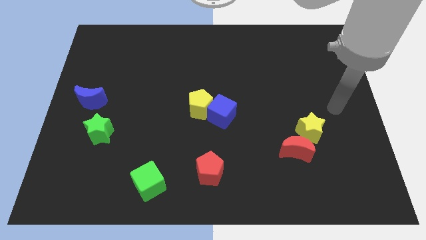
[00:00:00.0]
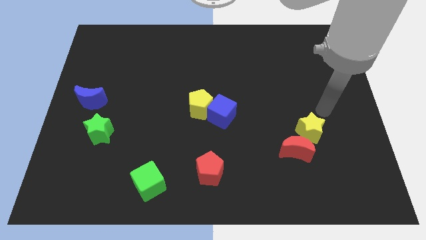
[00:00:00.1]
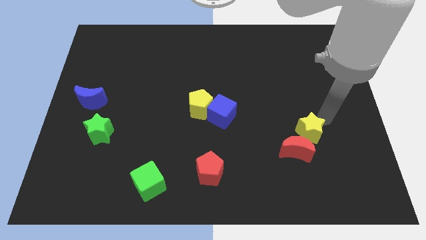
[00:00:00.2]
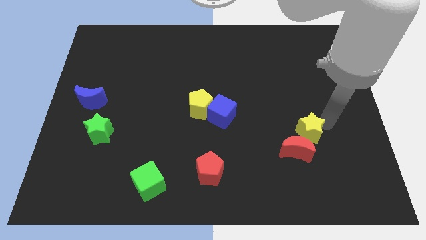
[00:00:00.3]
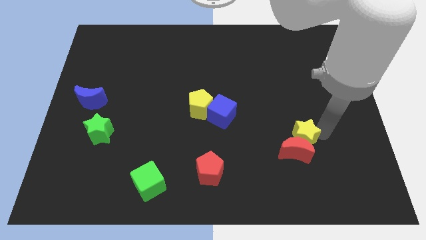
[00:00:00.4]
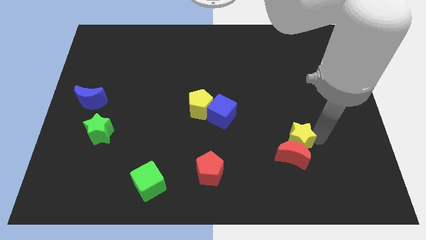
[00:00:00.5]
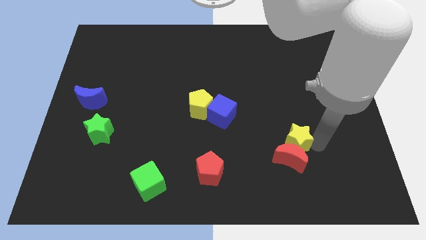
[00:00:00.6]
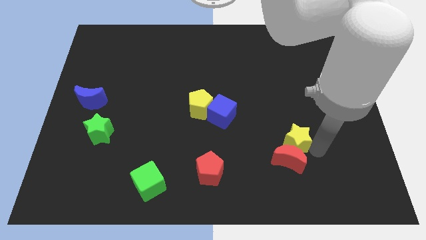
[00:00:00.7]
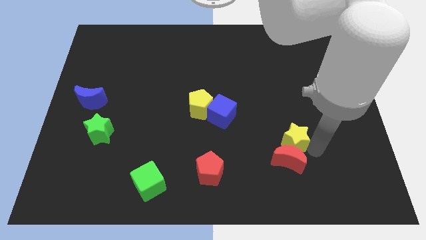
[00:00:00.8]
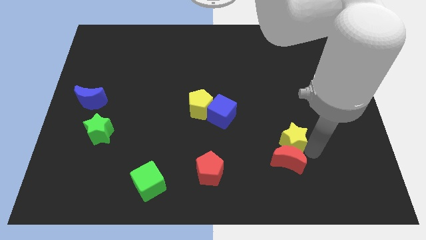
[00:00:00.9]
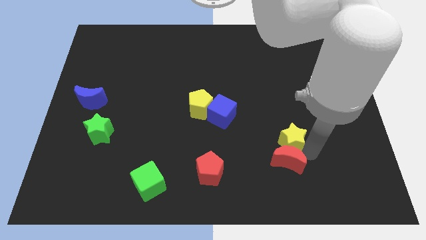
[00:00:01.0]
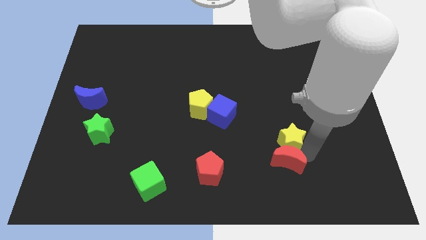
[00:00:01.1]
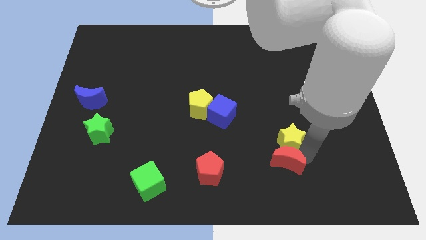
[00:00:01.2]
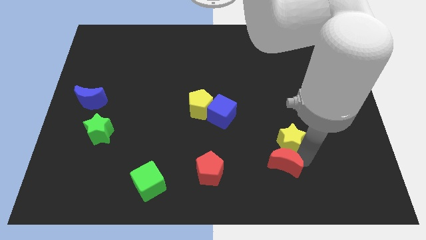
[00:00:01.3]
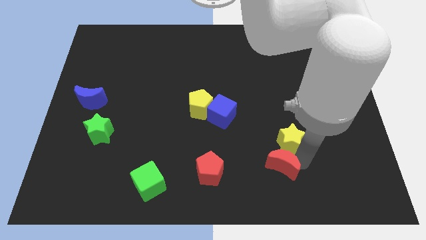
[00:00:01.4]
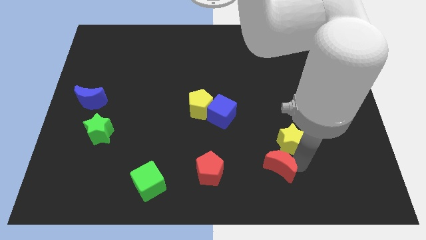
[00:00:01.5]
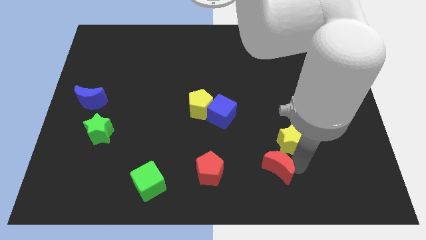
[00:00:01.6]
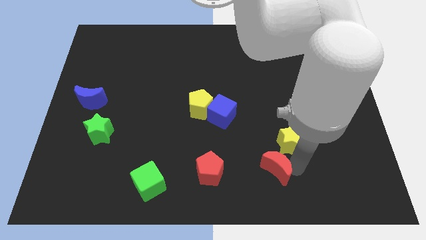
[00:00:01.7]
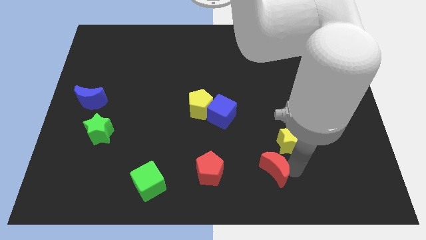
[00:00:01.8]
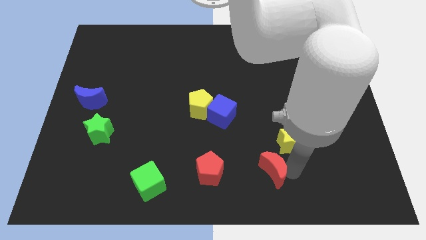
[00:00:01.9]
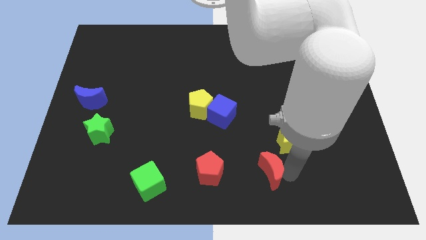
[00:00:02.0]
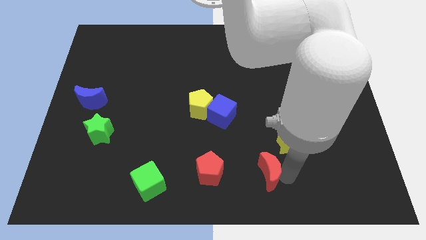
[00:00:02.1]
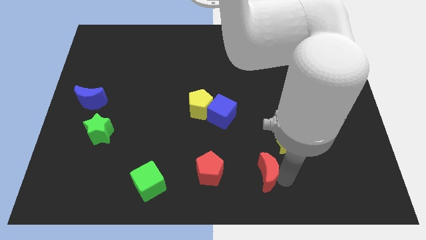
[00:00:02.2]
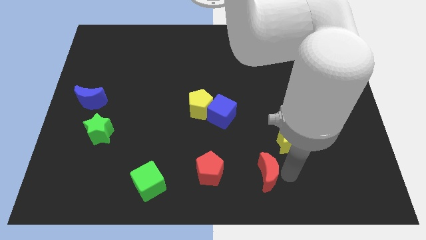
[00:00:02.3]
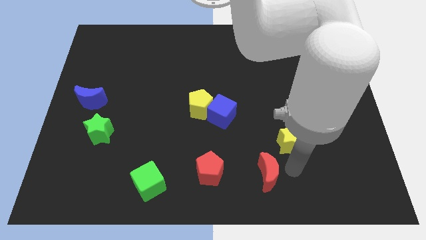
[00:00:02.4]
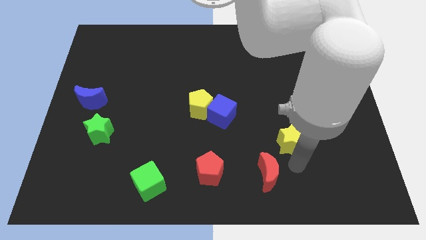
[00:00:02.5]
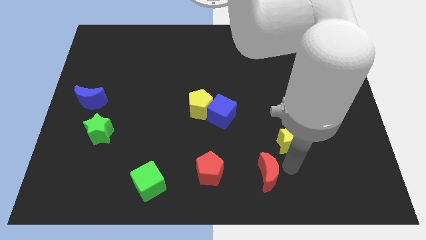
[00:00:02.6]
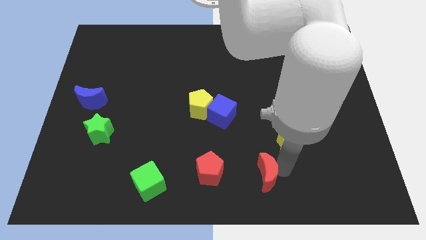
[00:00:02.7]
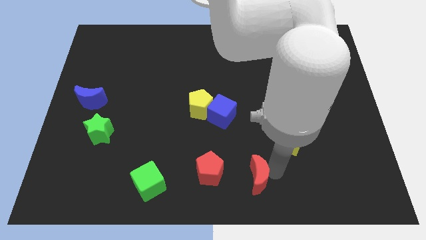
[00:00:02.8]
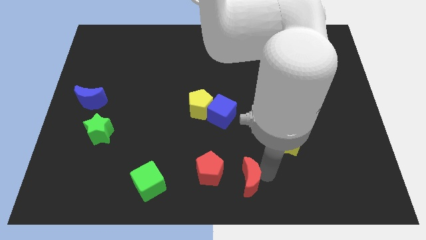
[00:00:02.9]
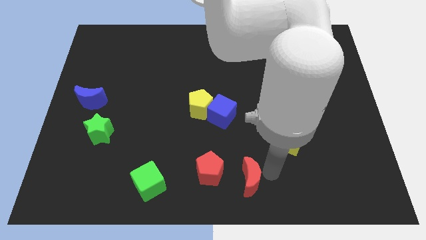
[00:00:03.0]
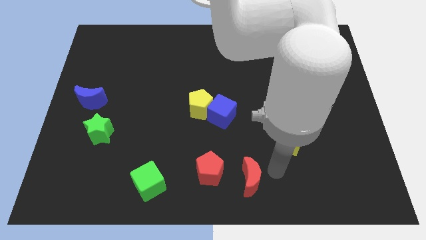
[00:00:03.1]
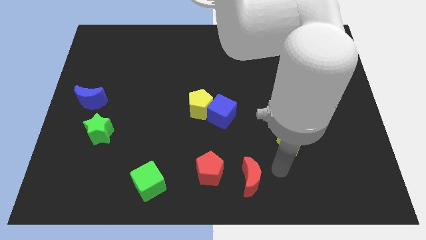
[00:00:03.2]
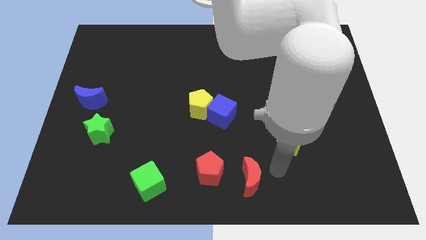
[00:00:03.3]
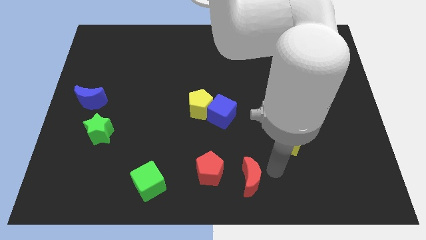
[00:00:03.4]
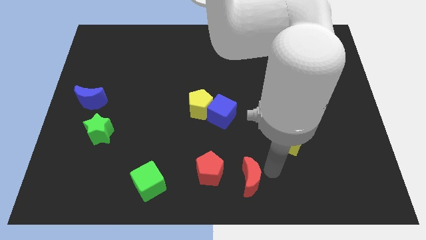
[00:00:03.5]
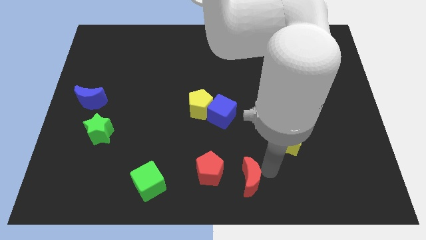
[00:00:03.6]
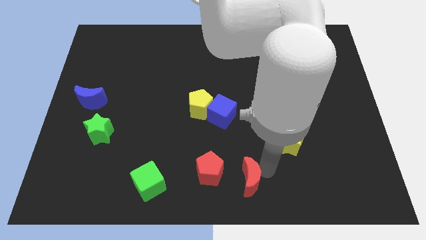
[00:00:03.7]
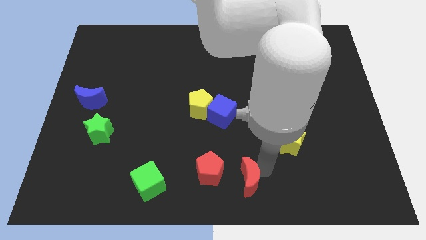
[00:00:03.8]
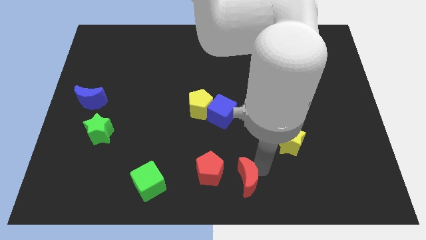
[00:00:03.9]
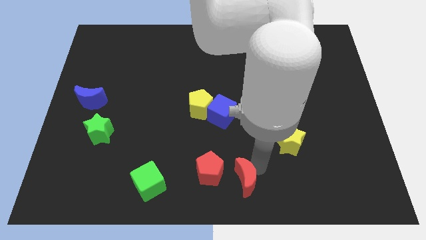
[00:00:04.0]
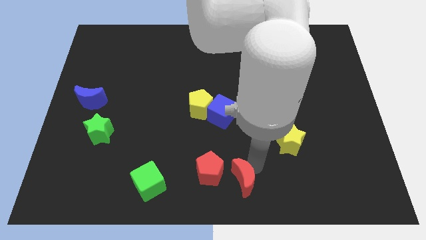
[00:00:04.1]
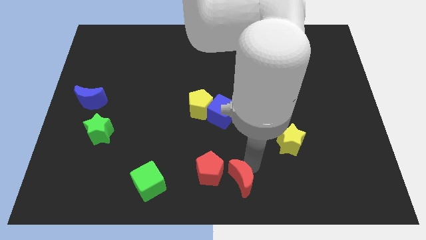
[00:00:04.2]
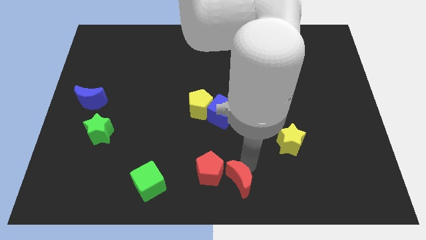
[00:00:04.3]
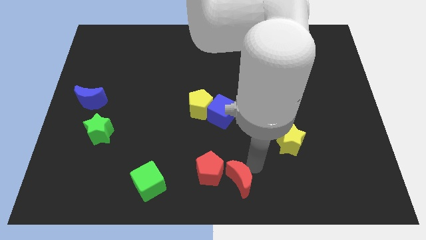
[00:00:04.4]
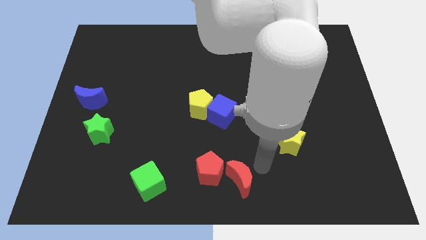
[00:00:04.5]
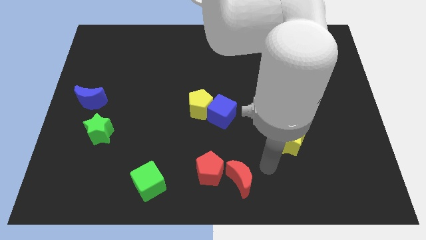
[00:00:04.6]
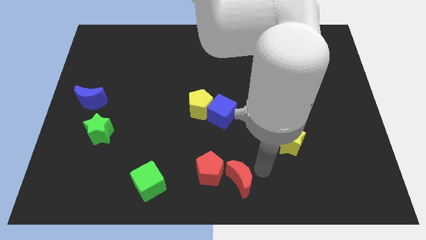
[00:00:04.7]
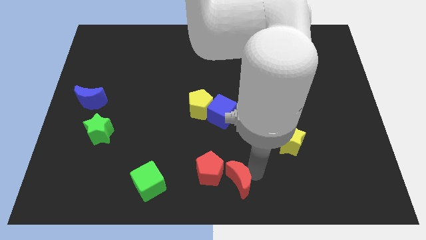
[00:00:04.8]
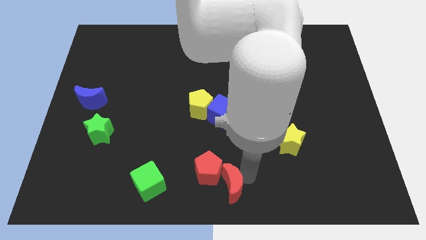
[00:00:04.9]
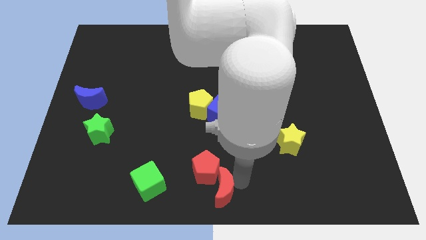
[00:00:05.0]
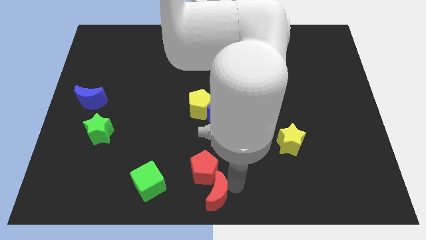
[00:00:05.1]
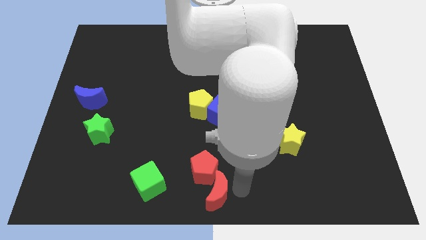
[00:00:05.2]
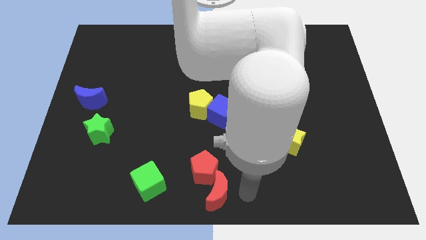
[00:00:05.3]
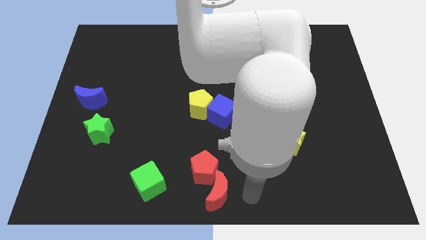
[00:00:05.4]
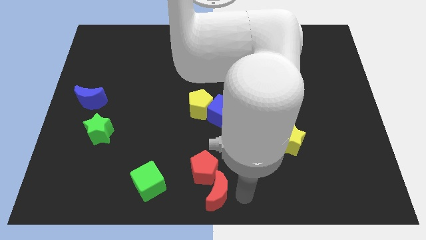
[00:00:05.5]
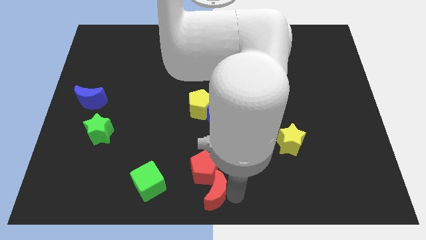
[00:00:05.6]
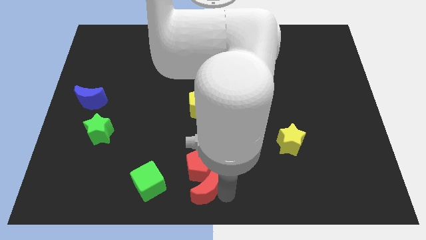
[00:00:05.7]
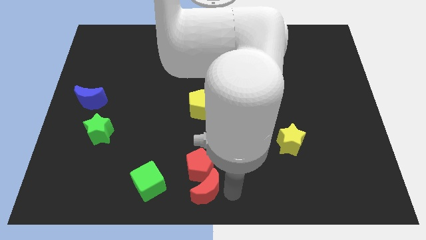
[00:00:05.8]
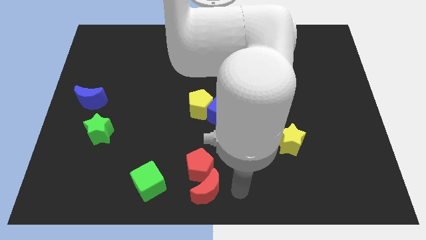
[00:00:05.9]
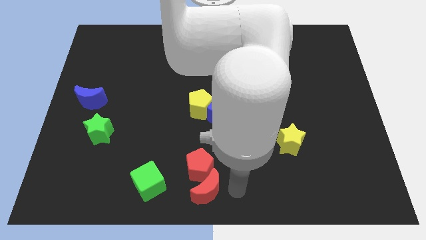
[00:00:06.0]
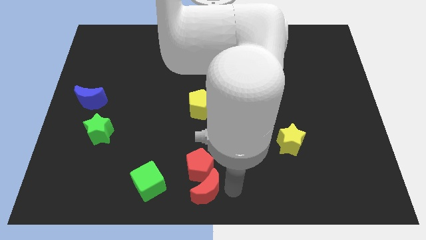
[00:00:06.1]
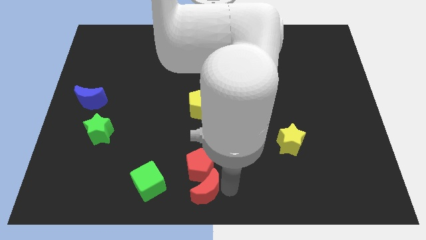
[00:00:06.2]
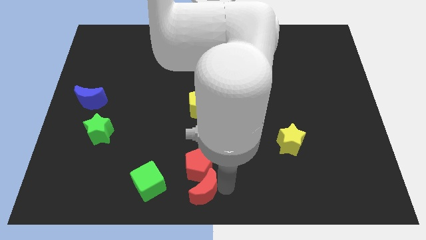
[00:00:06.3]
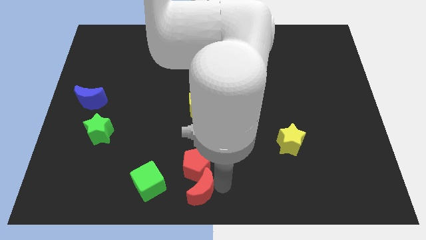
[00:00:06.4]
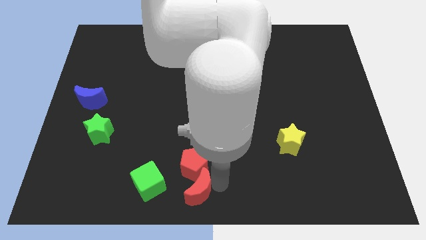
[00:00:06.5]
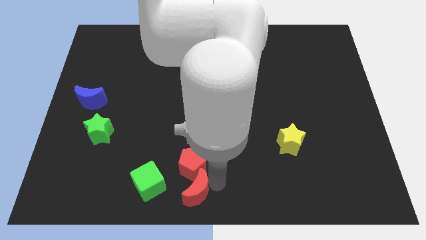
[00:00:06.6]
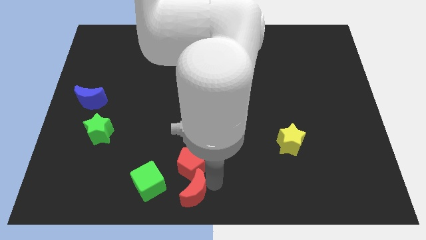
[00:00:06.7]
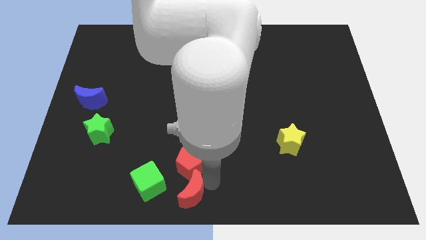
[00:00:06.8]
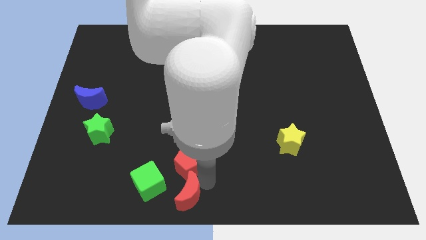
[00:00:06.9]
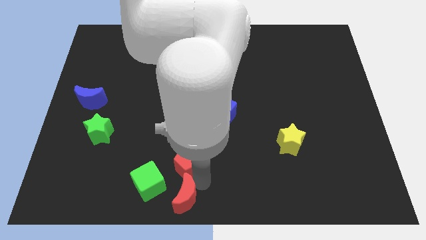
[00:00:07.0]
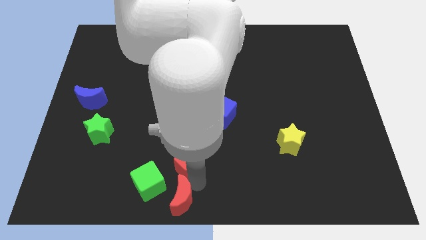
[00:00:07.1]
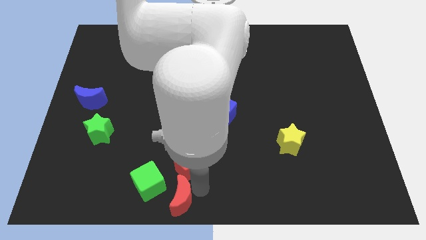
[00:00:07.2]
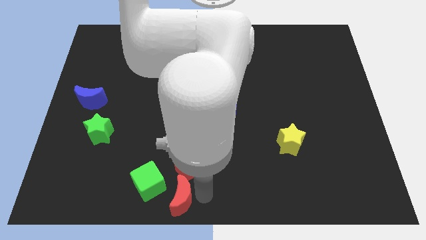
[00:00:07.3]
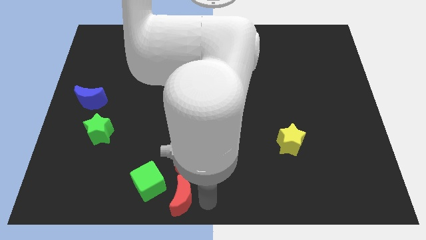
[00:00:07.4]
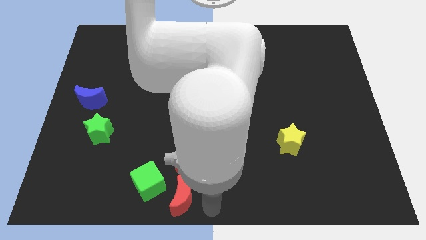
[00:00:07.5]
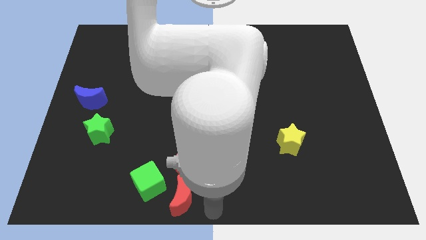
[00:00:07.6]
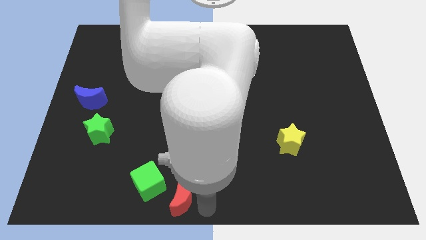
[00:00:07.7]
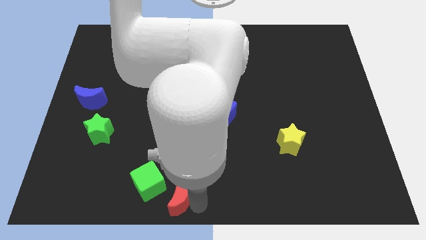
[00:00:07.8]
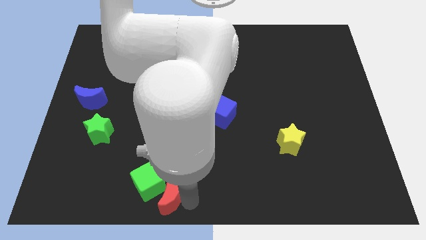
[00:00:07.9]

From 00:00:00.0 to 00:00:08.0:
move the red moon next to the green cube
